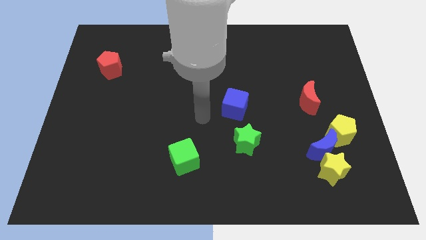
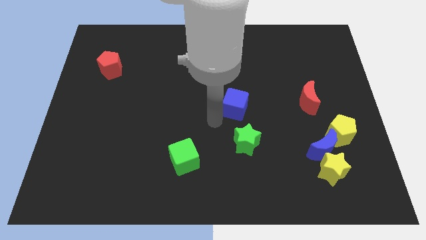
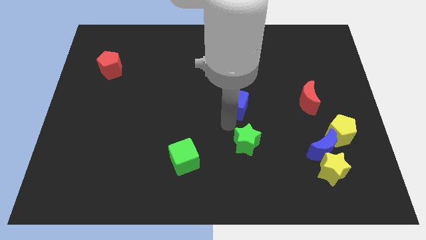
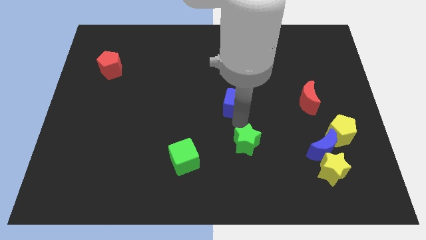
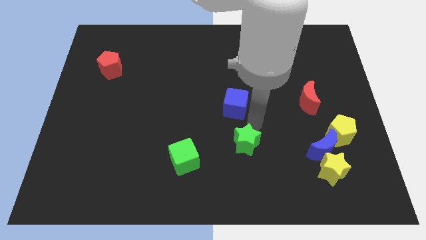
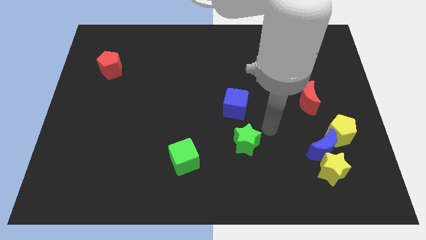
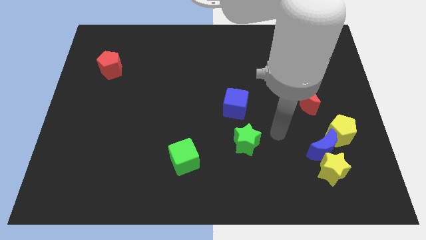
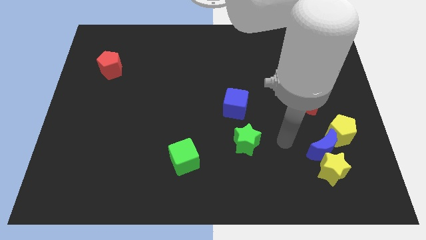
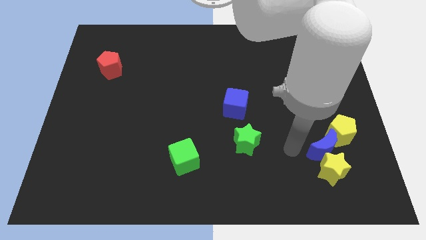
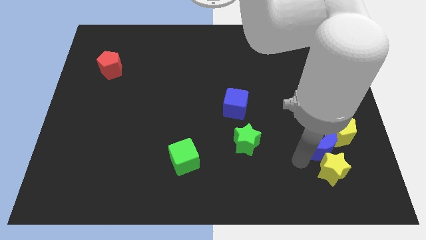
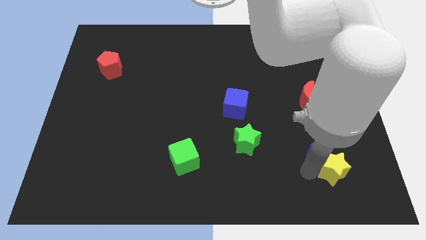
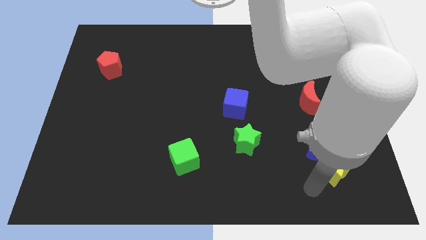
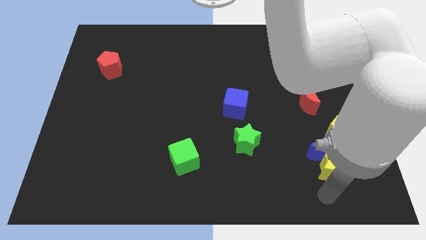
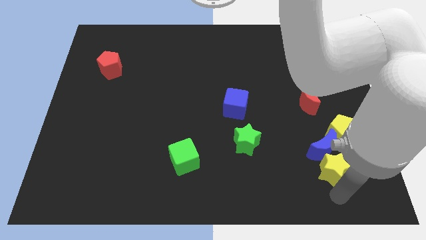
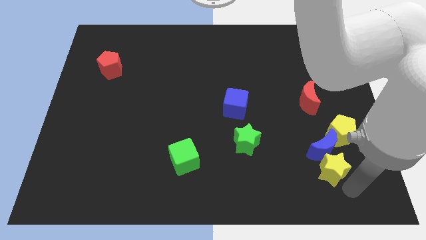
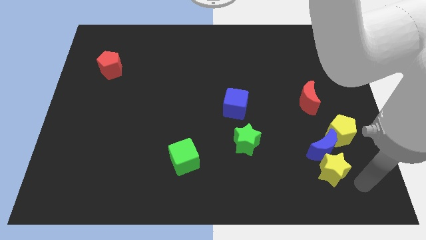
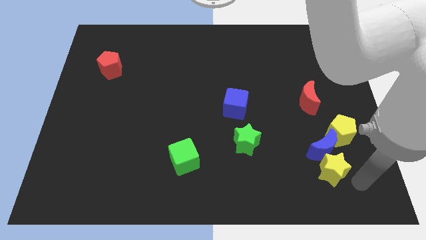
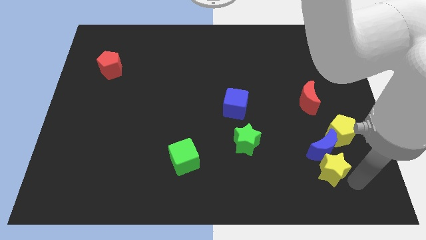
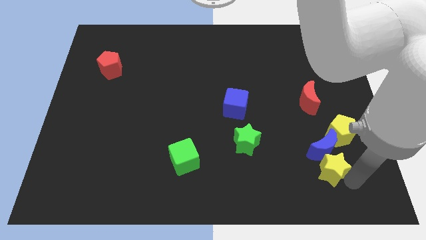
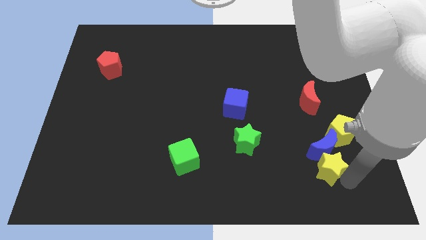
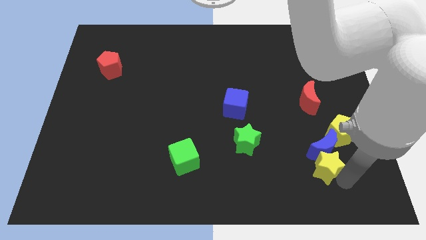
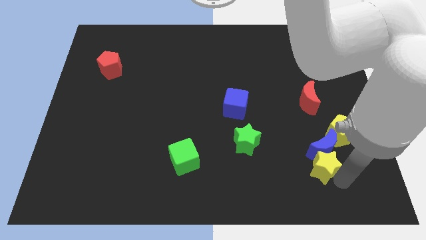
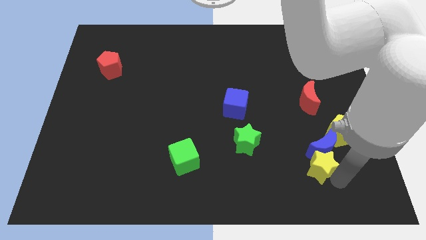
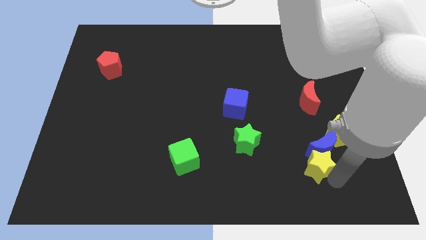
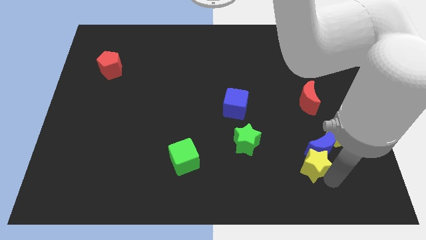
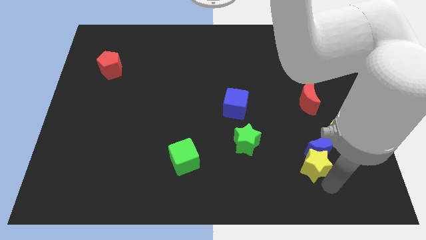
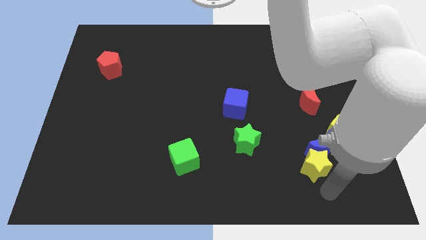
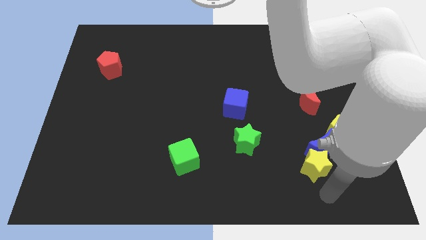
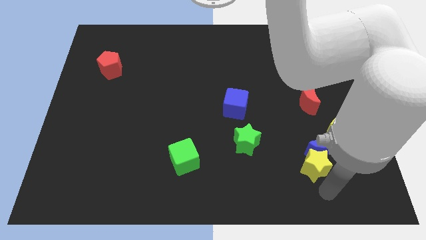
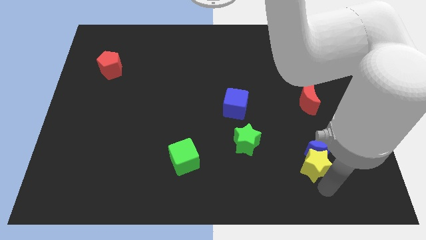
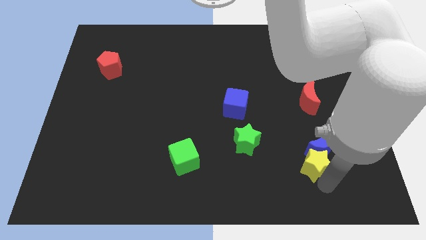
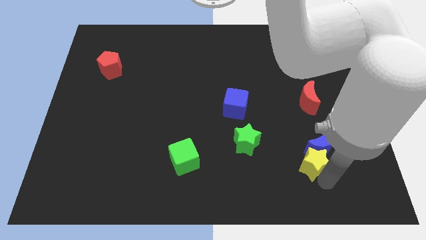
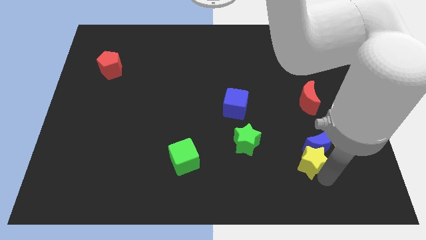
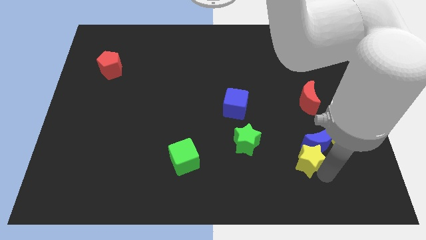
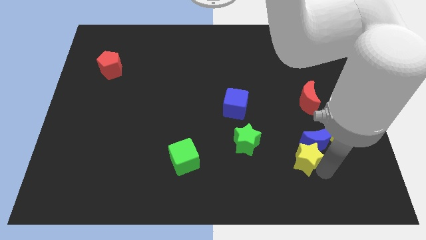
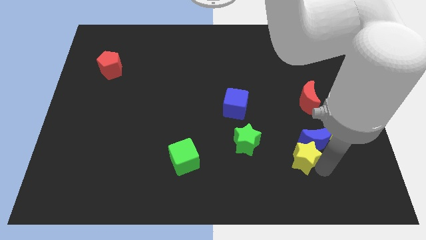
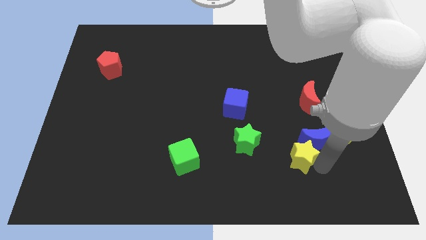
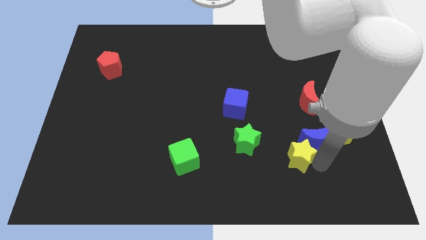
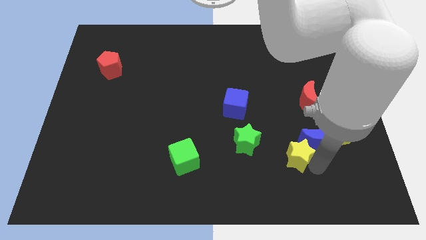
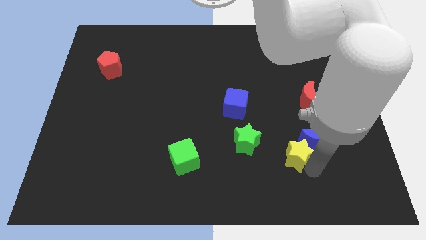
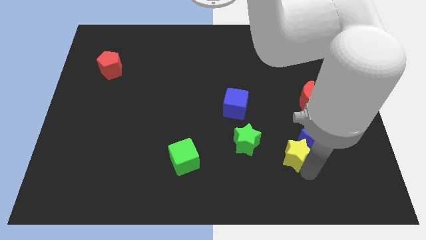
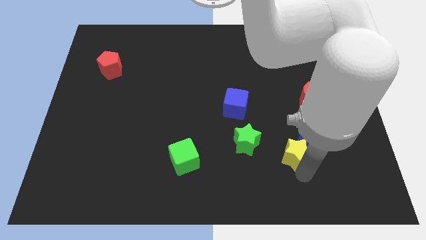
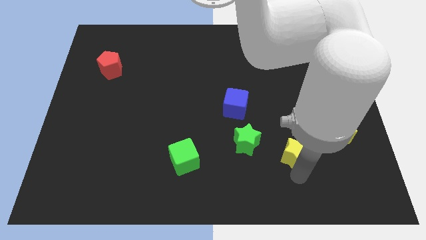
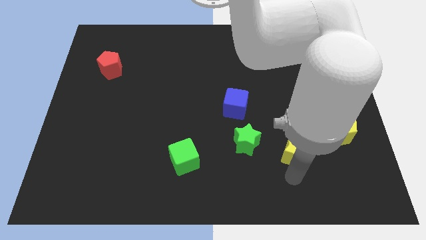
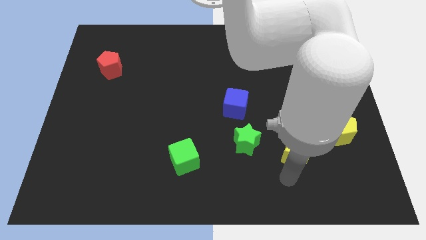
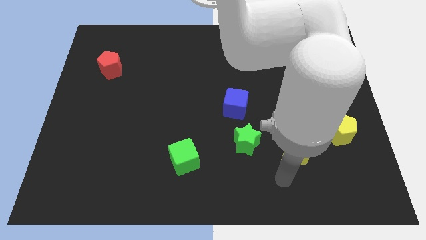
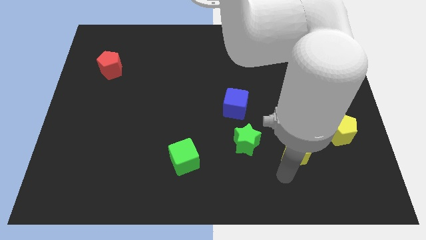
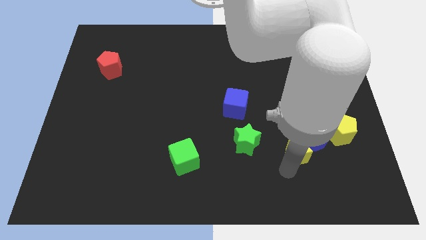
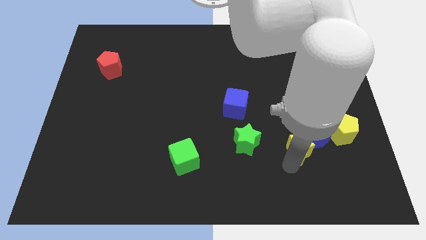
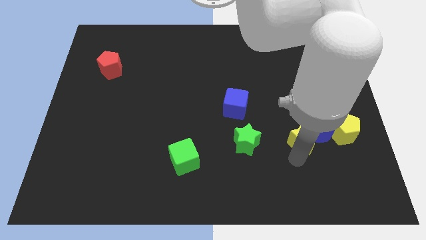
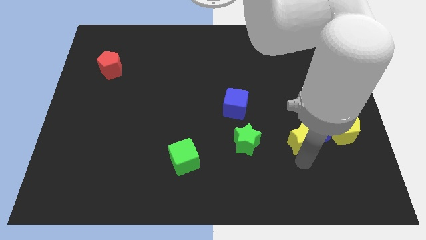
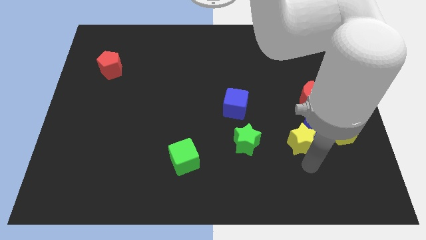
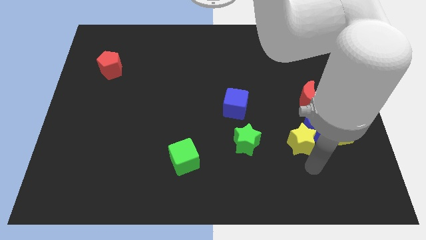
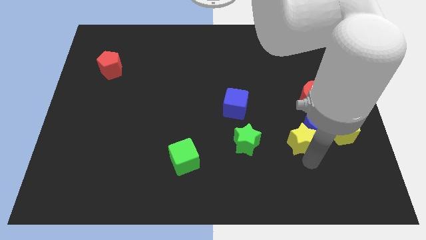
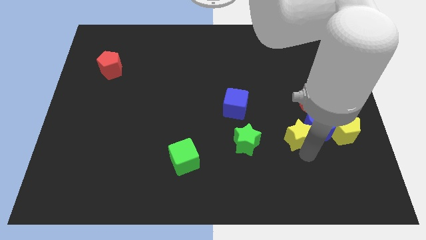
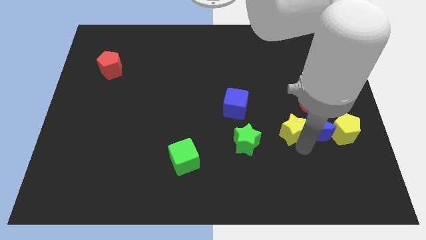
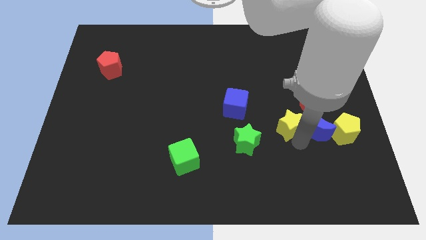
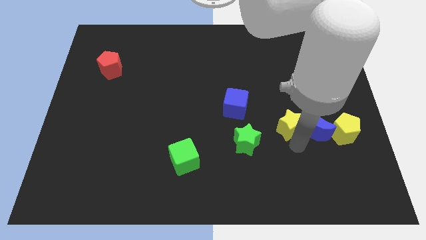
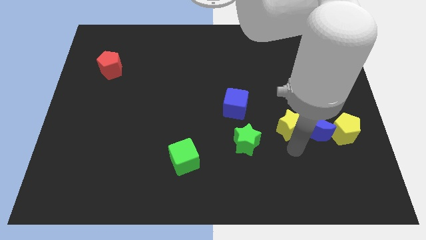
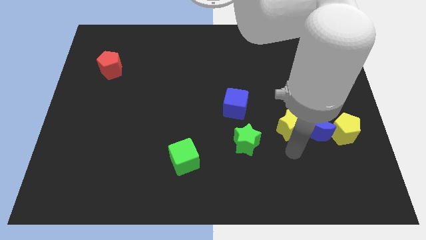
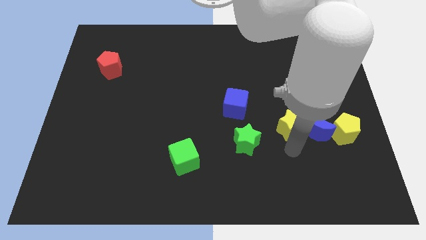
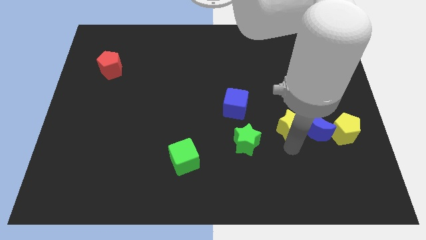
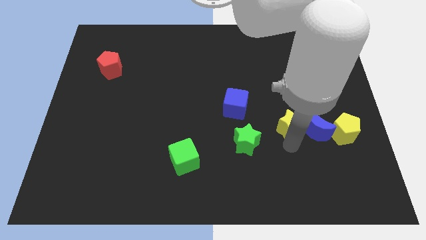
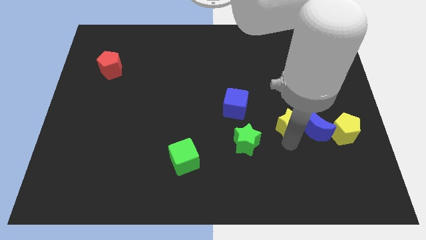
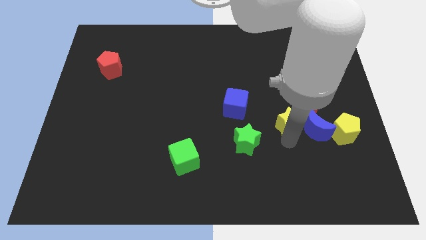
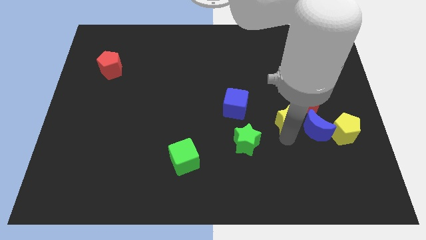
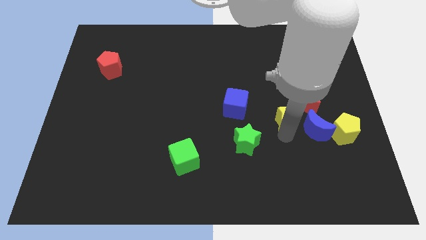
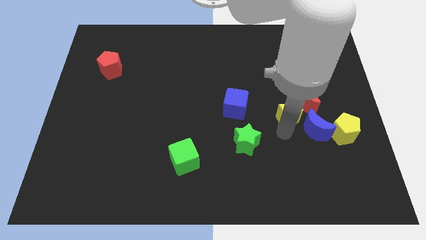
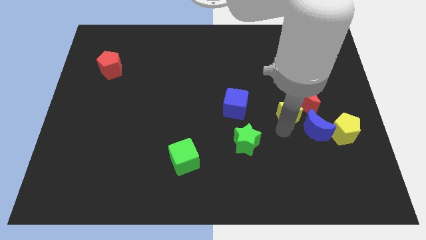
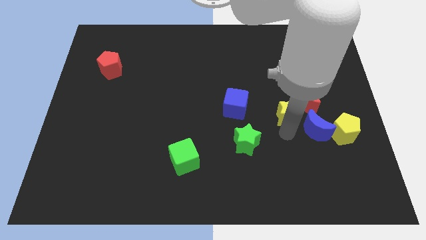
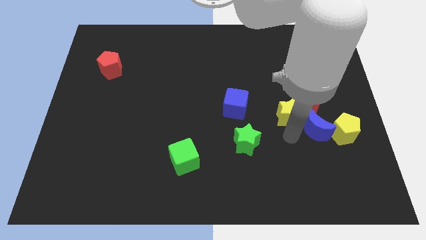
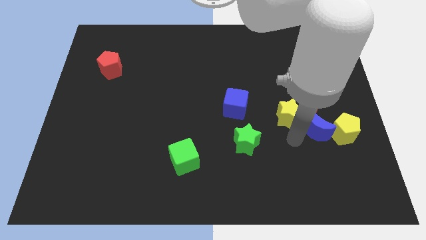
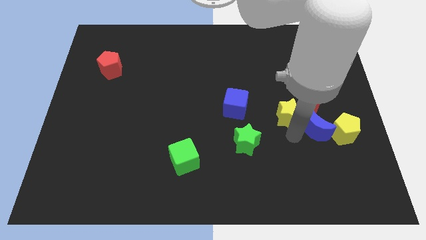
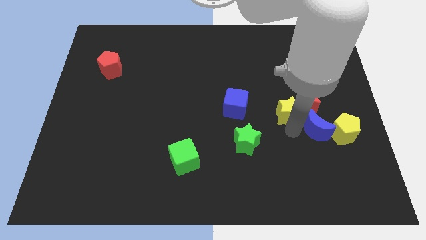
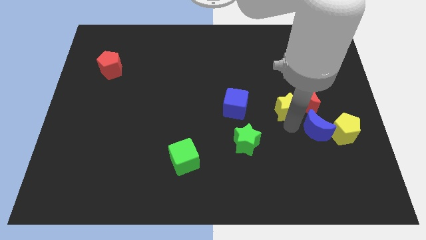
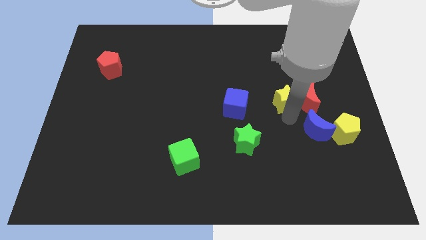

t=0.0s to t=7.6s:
slide the yellow star diagonally up and to the left of the red moon
